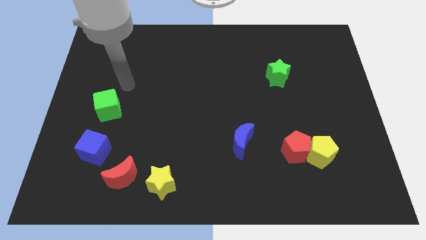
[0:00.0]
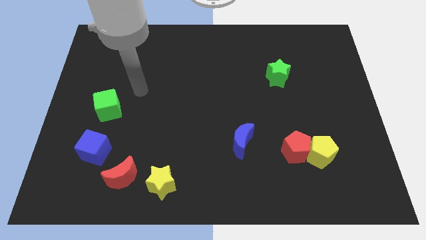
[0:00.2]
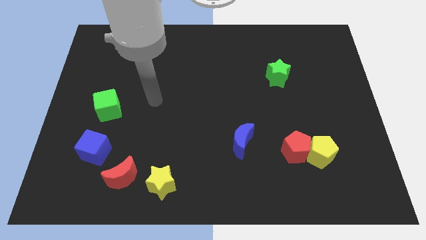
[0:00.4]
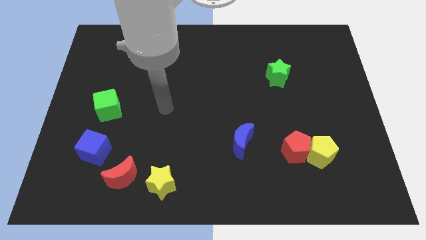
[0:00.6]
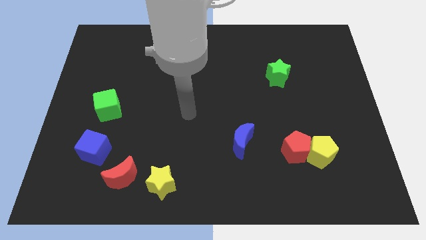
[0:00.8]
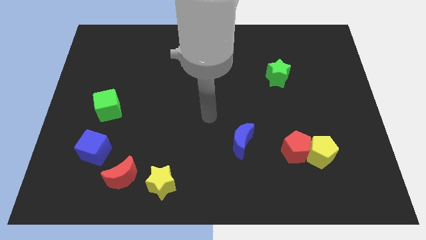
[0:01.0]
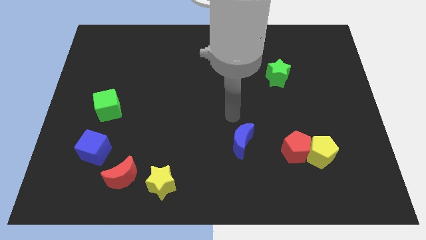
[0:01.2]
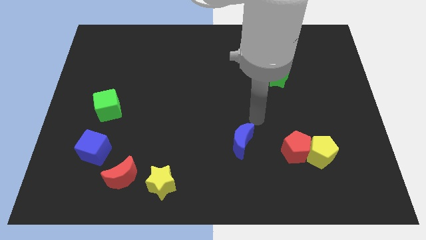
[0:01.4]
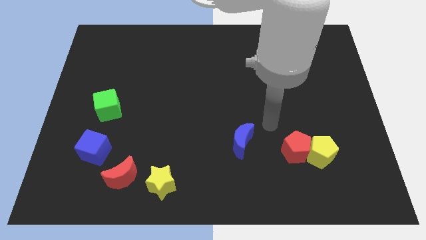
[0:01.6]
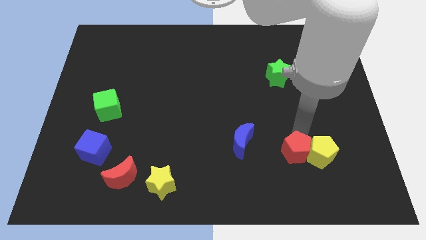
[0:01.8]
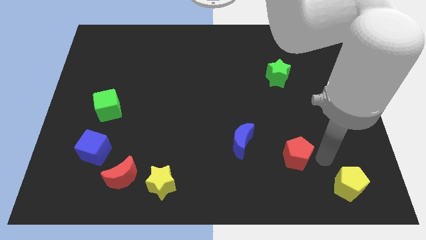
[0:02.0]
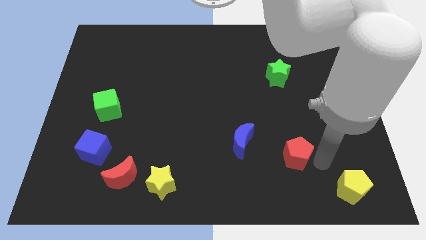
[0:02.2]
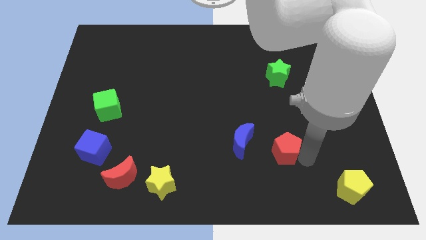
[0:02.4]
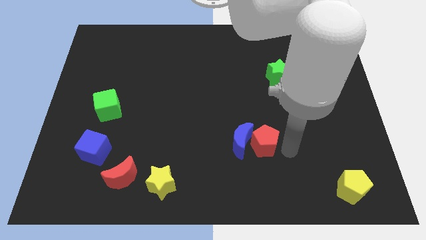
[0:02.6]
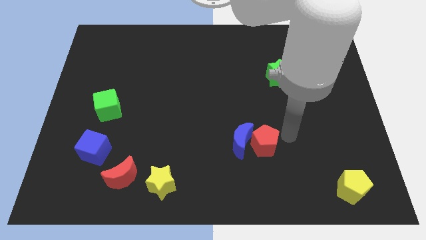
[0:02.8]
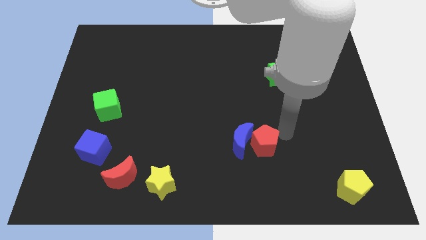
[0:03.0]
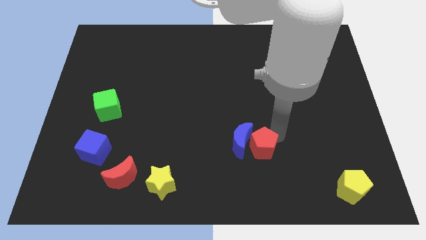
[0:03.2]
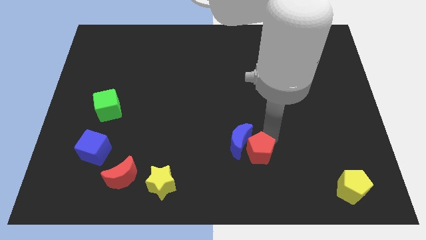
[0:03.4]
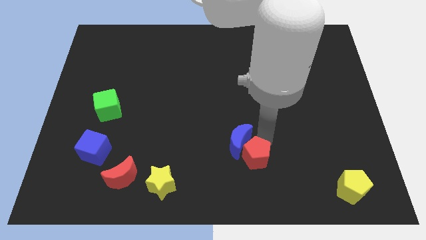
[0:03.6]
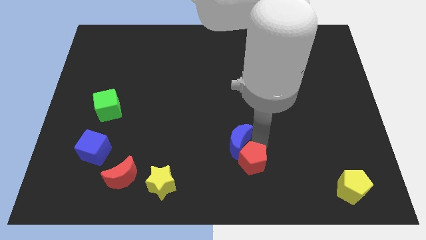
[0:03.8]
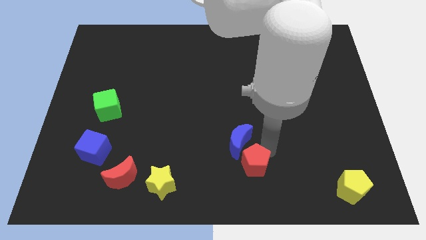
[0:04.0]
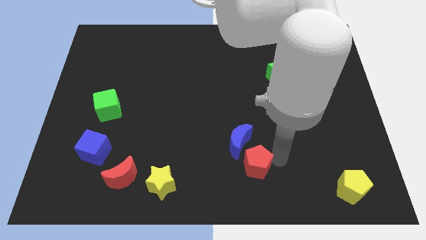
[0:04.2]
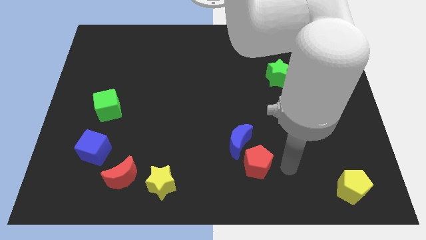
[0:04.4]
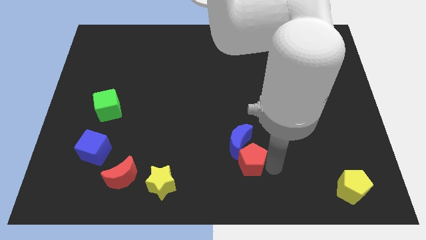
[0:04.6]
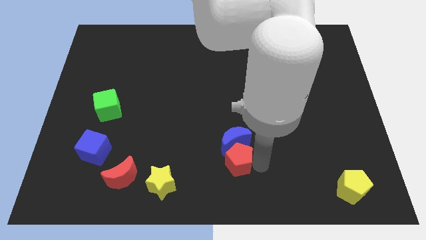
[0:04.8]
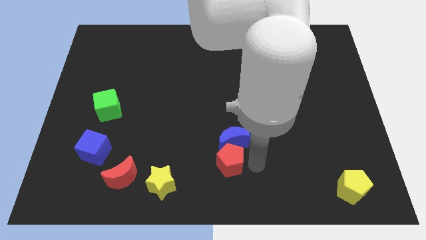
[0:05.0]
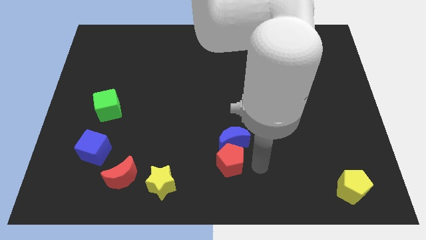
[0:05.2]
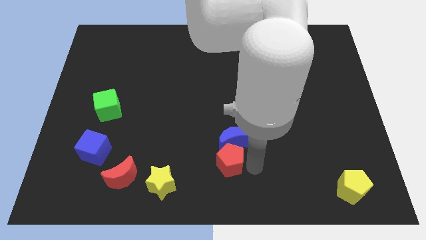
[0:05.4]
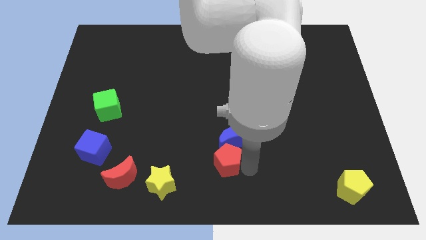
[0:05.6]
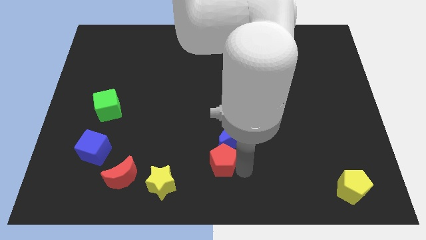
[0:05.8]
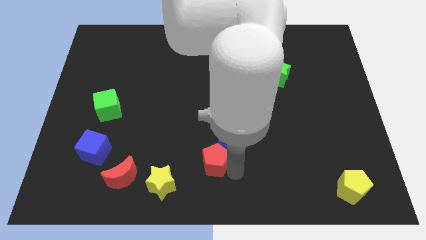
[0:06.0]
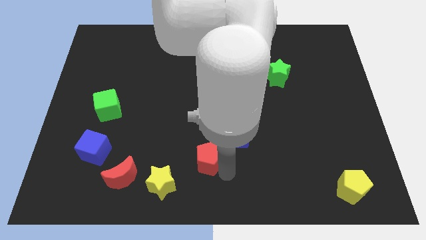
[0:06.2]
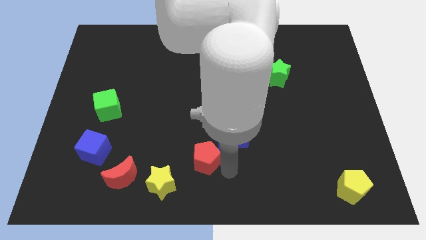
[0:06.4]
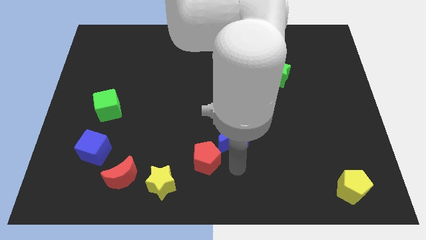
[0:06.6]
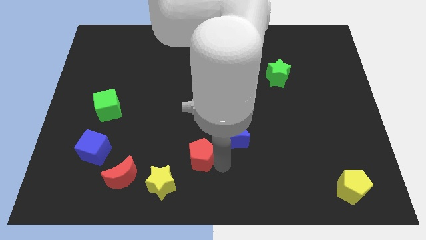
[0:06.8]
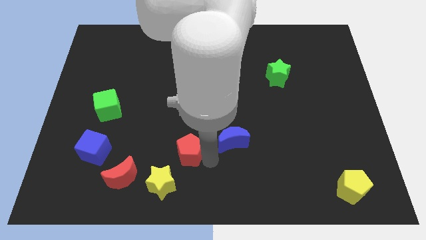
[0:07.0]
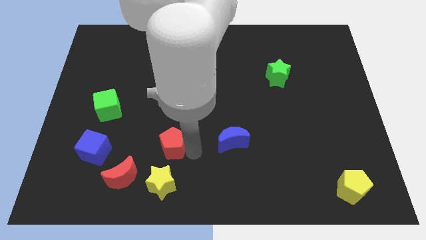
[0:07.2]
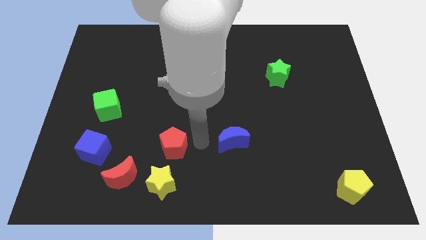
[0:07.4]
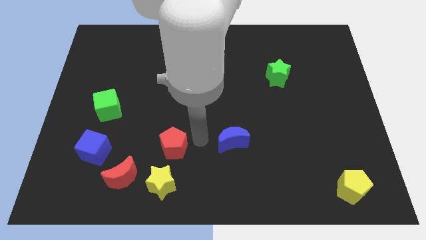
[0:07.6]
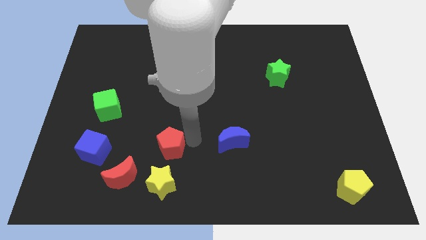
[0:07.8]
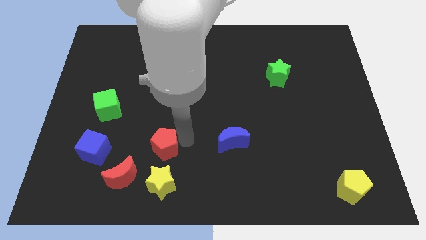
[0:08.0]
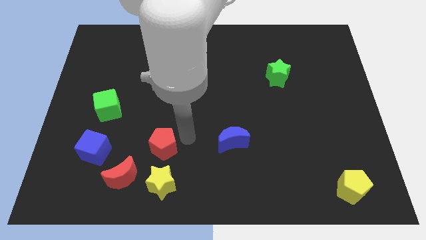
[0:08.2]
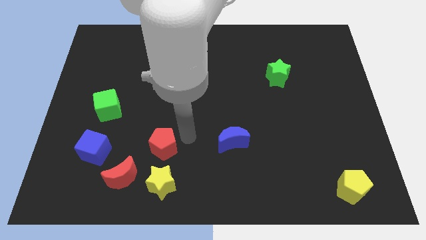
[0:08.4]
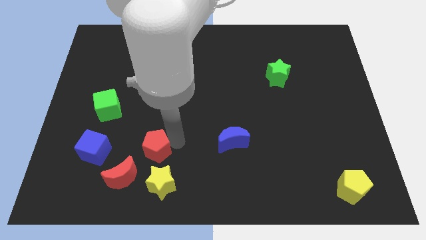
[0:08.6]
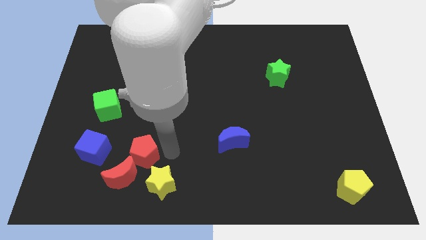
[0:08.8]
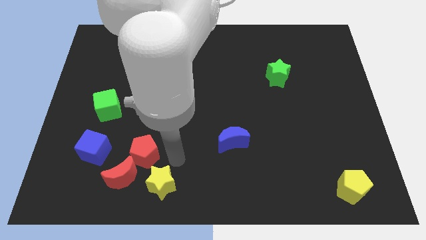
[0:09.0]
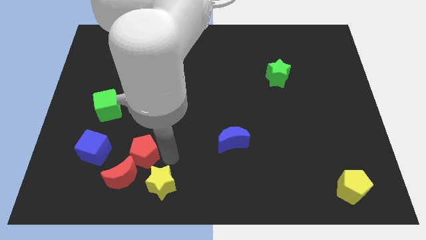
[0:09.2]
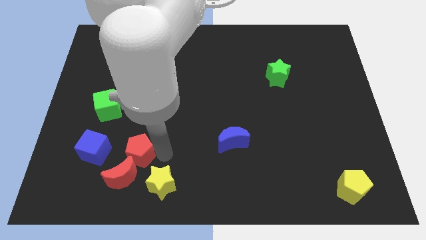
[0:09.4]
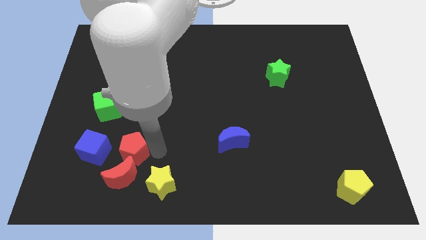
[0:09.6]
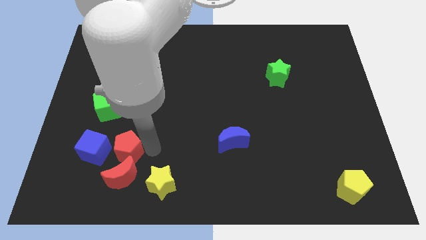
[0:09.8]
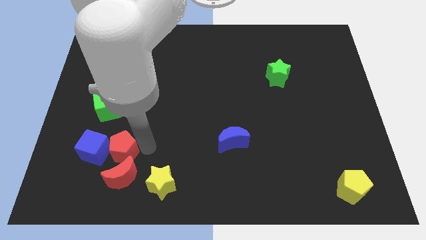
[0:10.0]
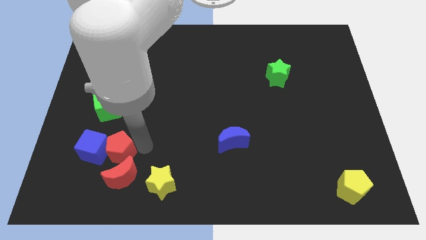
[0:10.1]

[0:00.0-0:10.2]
put the red pentagon close to the blue cube

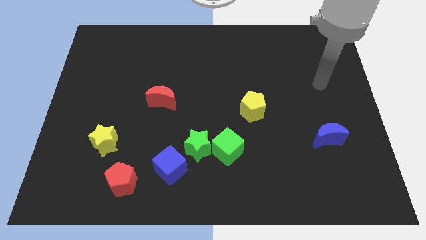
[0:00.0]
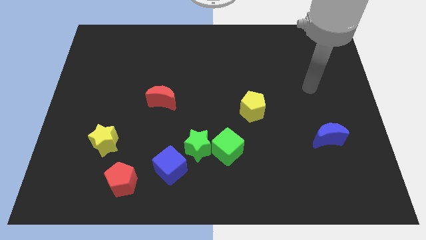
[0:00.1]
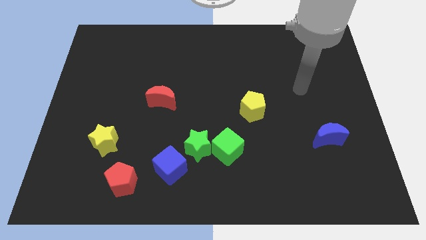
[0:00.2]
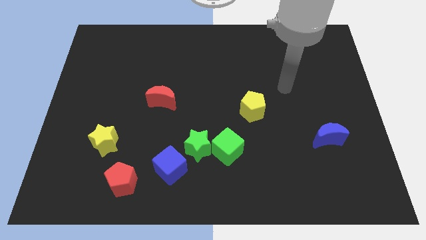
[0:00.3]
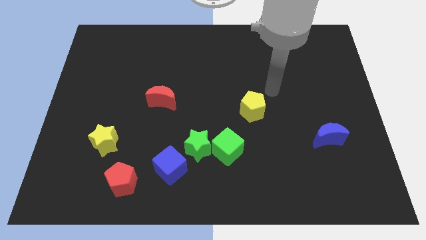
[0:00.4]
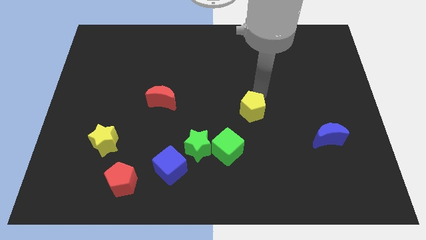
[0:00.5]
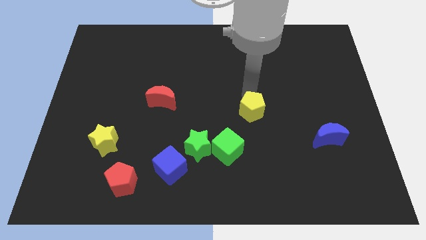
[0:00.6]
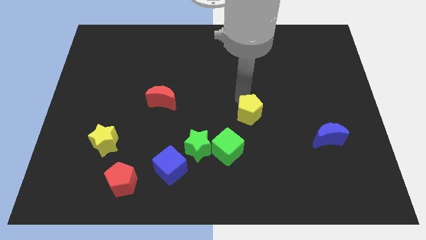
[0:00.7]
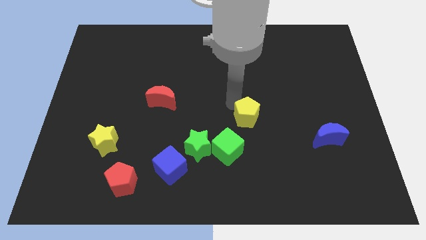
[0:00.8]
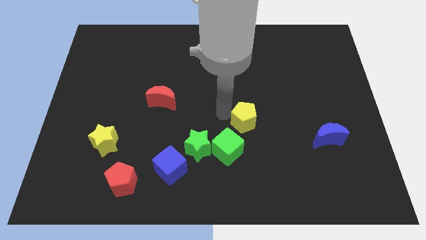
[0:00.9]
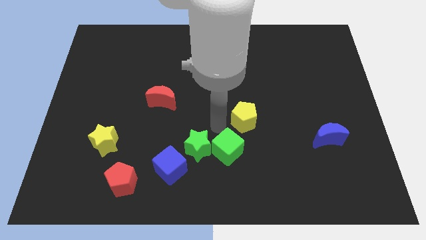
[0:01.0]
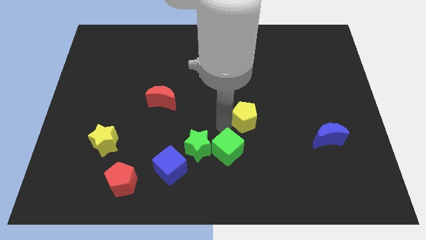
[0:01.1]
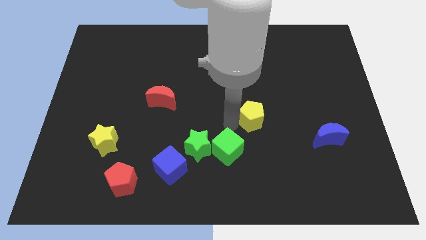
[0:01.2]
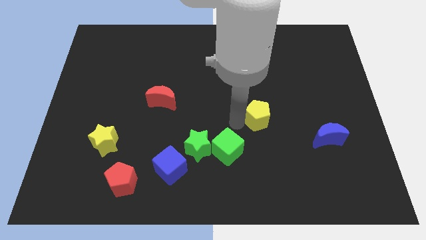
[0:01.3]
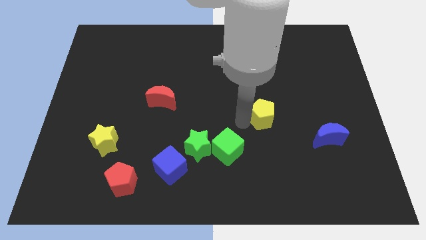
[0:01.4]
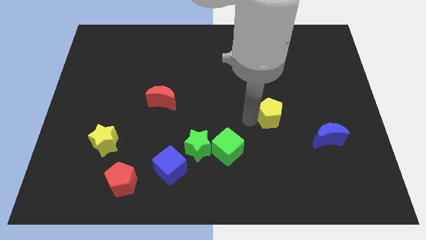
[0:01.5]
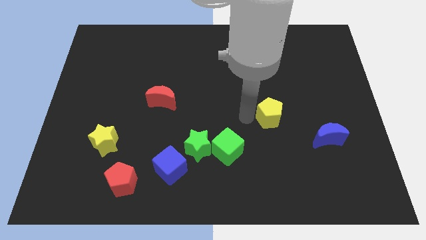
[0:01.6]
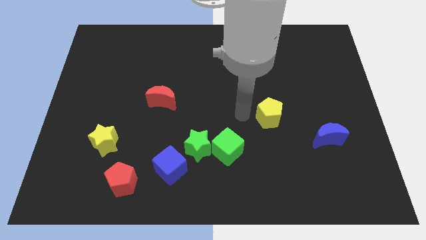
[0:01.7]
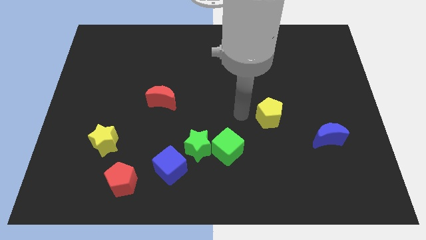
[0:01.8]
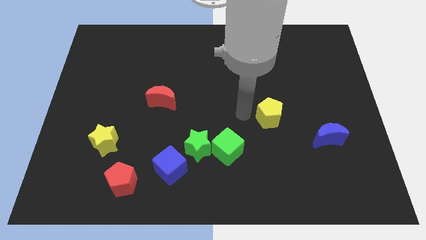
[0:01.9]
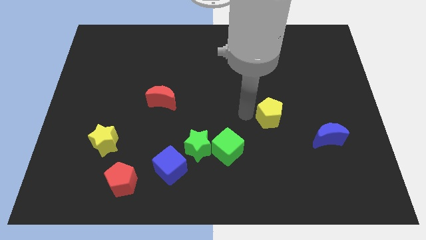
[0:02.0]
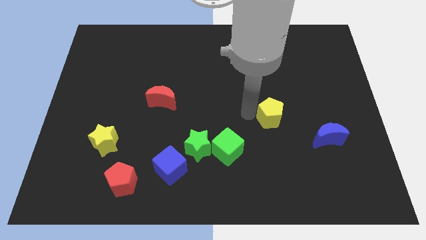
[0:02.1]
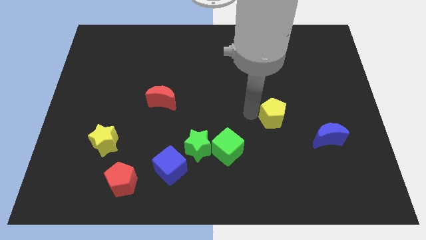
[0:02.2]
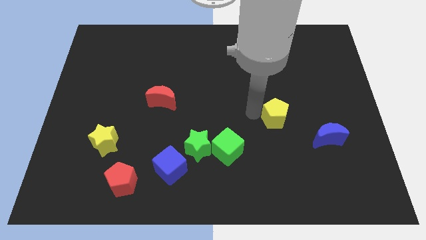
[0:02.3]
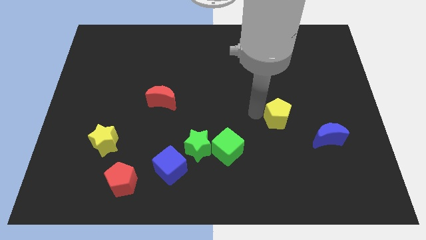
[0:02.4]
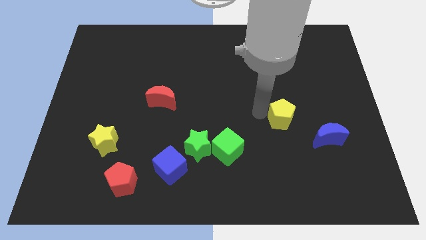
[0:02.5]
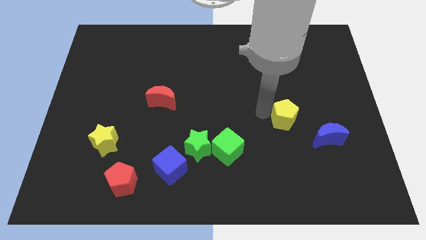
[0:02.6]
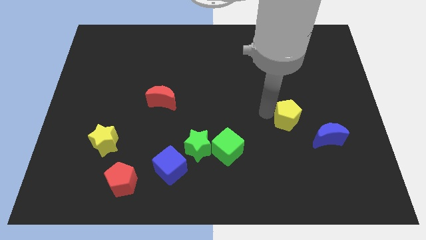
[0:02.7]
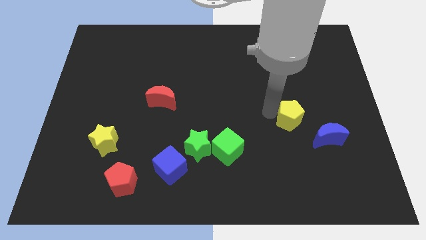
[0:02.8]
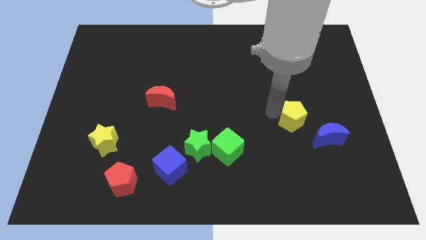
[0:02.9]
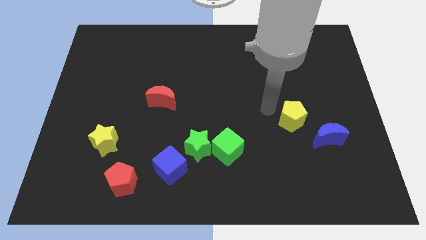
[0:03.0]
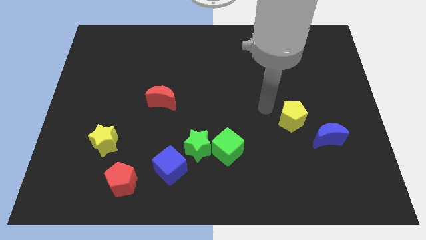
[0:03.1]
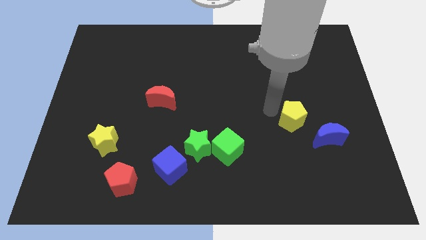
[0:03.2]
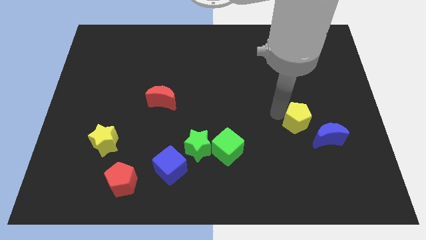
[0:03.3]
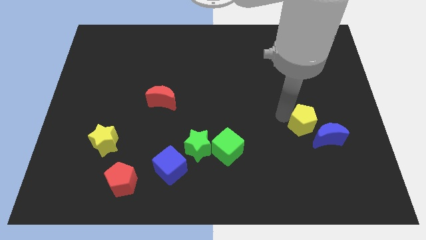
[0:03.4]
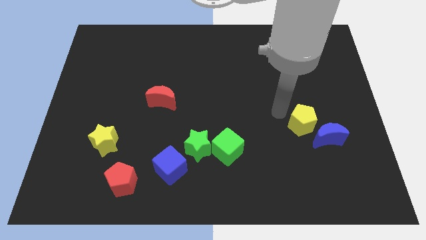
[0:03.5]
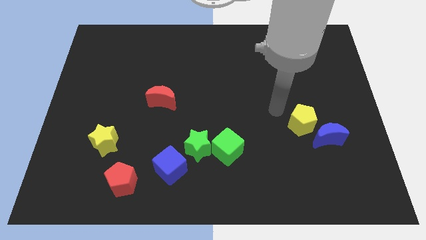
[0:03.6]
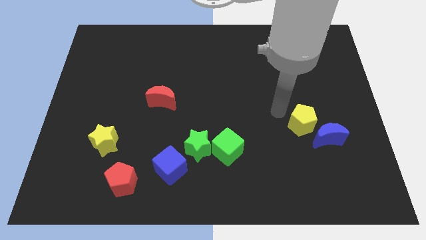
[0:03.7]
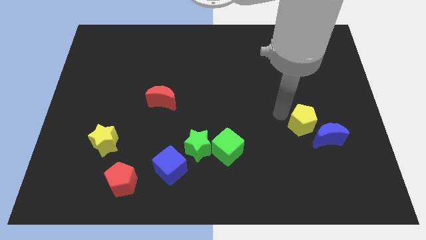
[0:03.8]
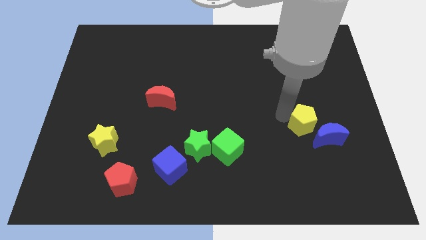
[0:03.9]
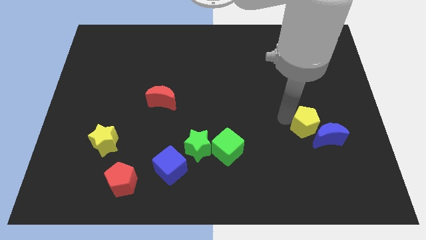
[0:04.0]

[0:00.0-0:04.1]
put the yellow pentagon close to the blue moon
